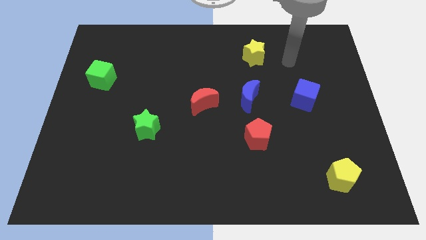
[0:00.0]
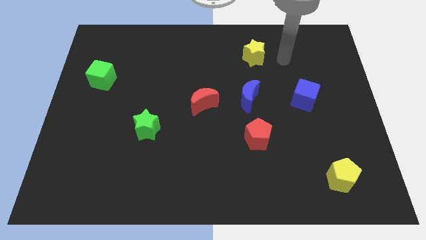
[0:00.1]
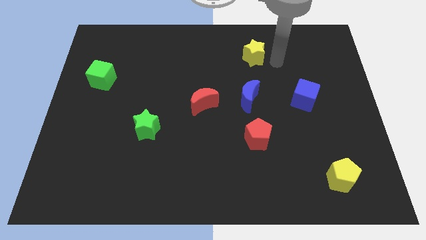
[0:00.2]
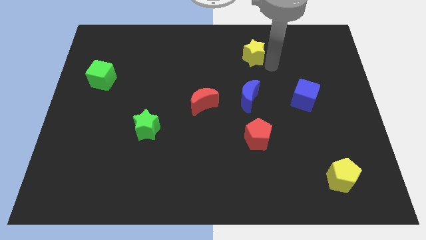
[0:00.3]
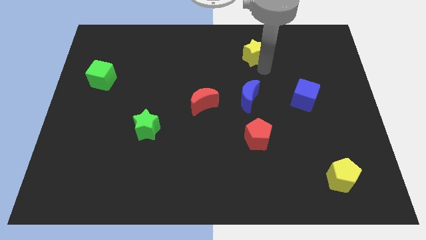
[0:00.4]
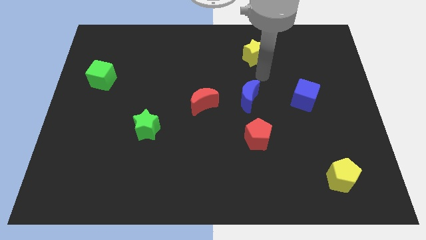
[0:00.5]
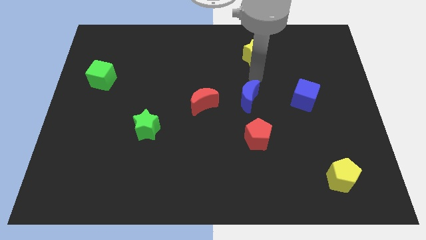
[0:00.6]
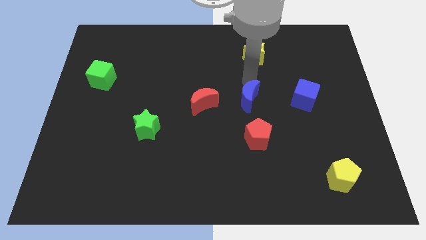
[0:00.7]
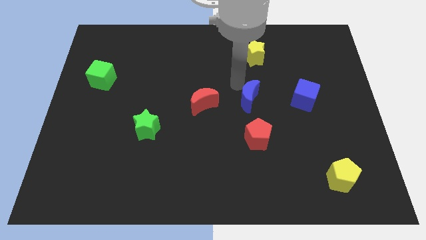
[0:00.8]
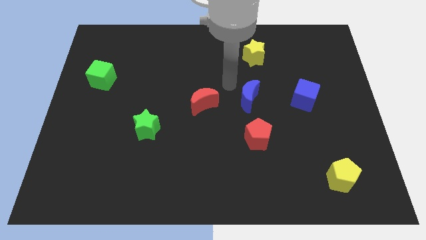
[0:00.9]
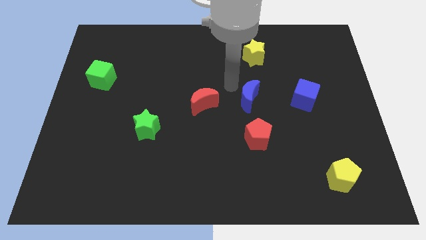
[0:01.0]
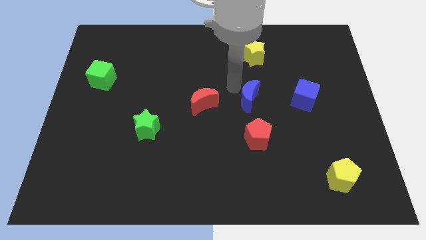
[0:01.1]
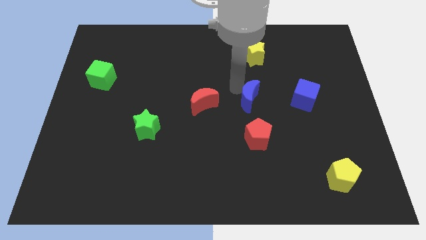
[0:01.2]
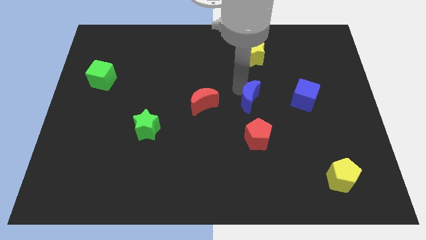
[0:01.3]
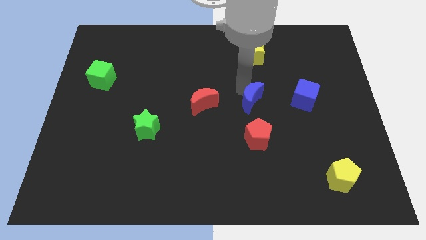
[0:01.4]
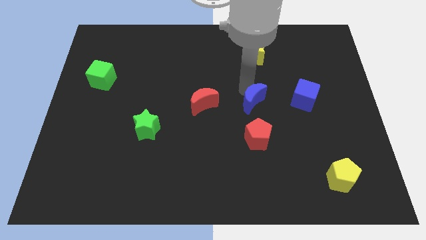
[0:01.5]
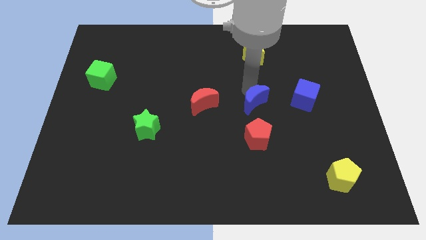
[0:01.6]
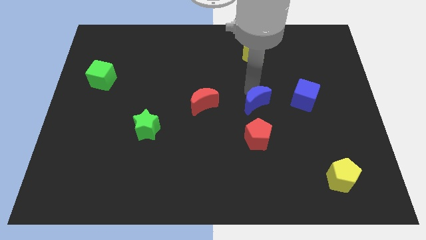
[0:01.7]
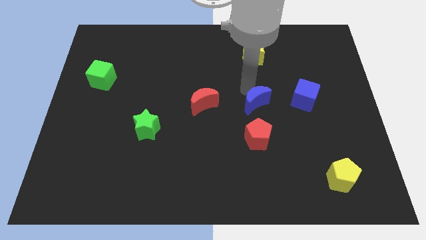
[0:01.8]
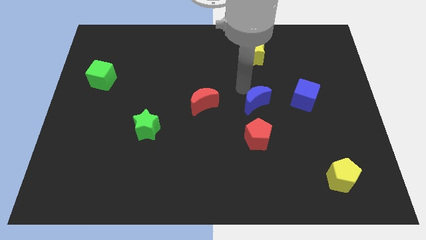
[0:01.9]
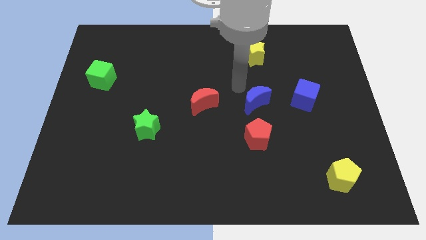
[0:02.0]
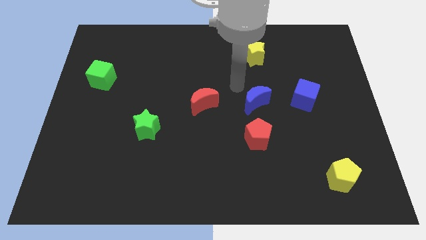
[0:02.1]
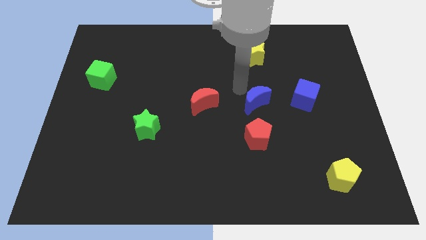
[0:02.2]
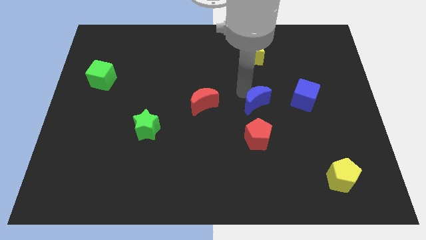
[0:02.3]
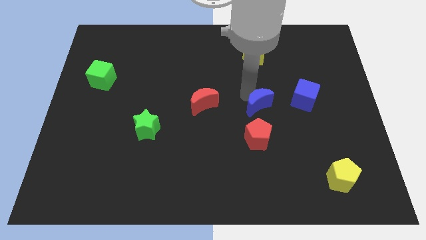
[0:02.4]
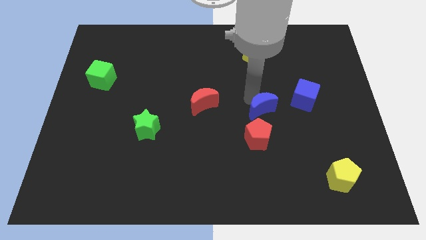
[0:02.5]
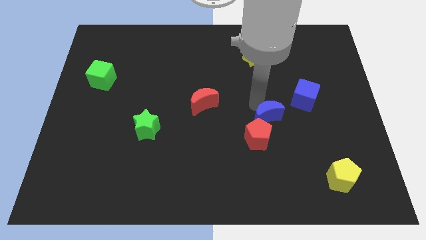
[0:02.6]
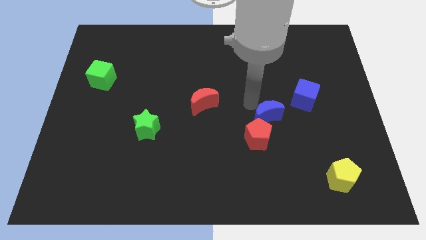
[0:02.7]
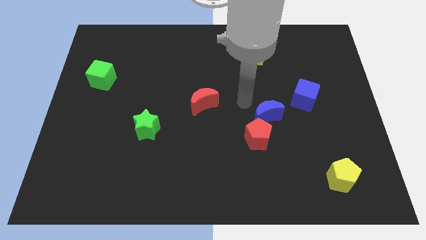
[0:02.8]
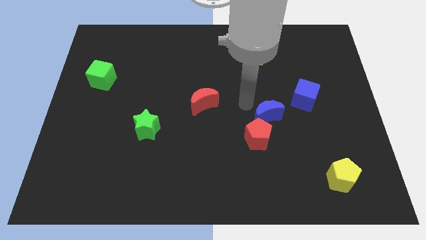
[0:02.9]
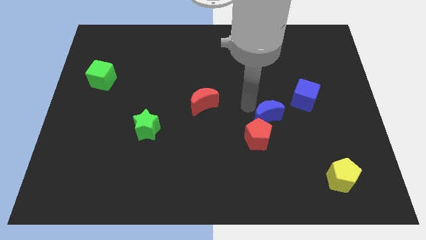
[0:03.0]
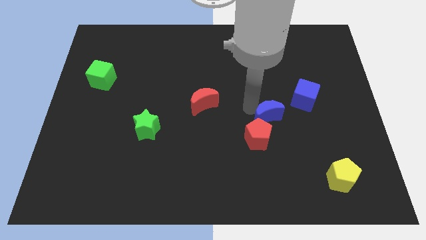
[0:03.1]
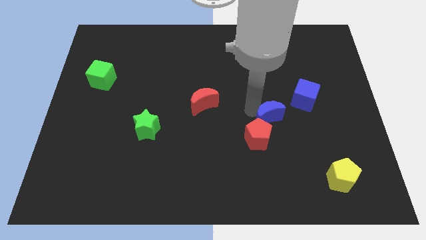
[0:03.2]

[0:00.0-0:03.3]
slightly move the blue moon downwards and to the right diagonally

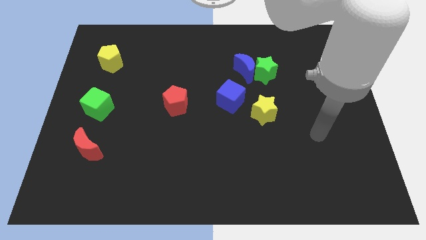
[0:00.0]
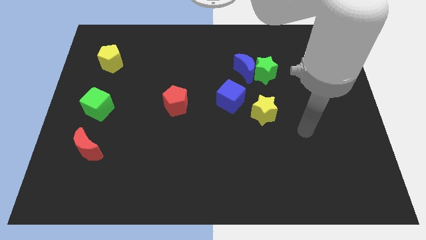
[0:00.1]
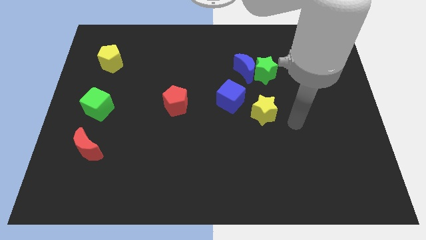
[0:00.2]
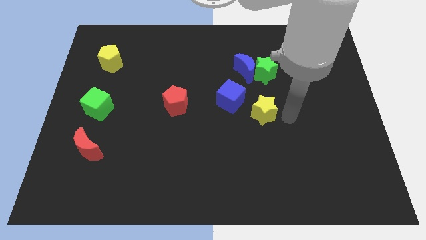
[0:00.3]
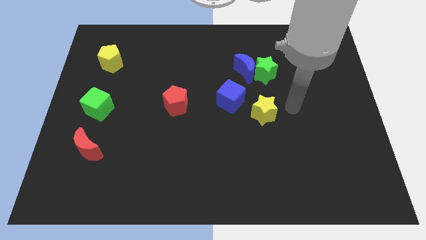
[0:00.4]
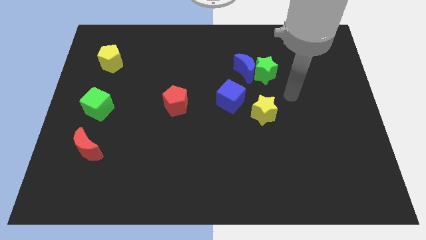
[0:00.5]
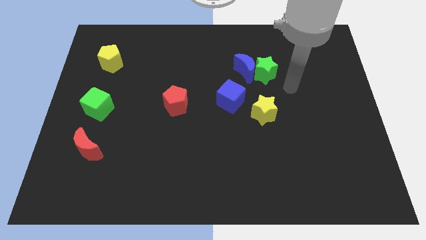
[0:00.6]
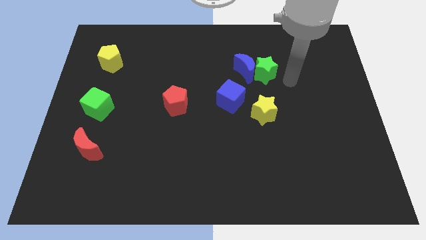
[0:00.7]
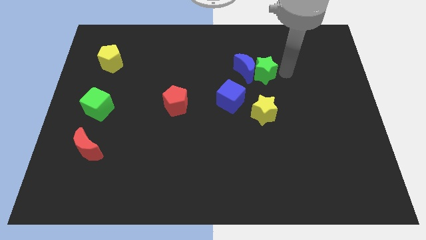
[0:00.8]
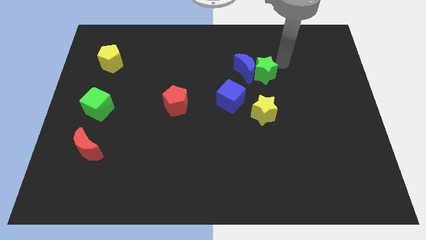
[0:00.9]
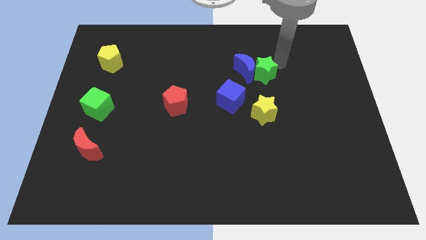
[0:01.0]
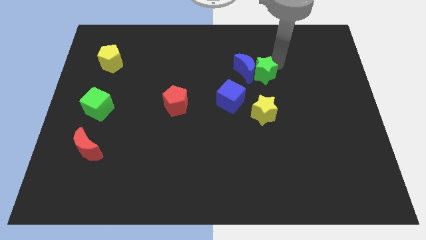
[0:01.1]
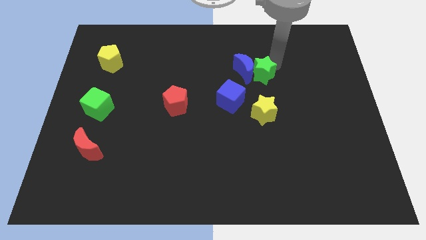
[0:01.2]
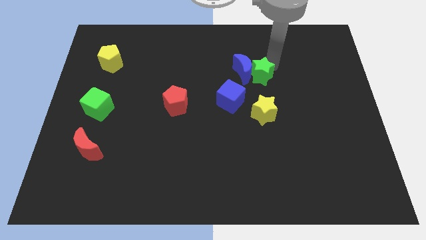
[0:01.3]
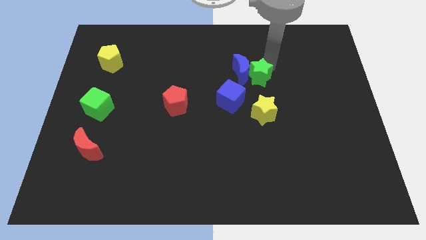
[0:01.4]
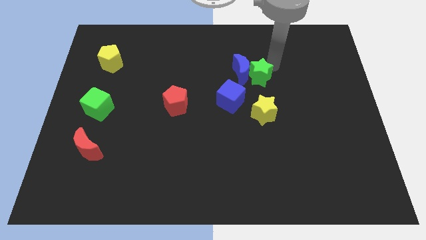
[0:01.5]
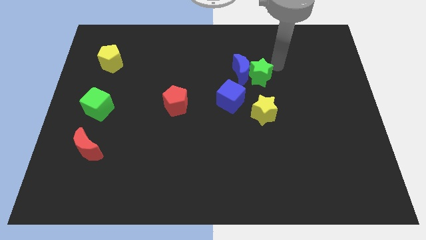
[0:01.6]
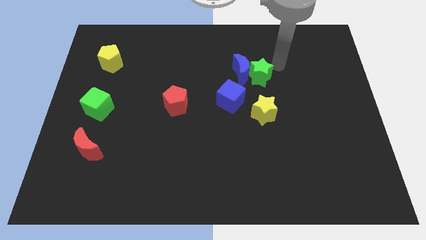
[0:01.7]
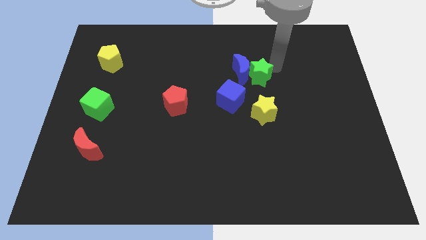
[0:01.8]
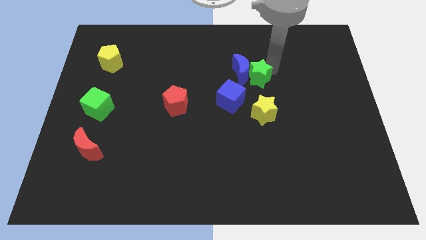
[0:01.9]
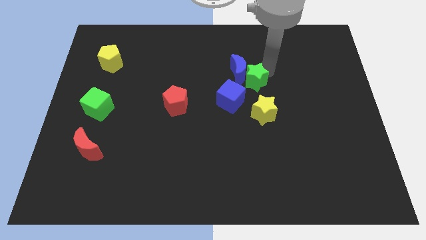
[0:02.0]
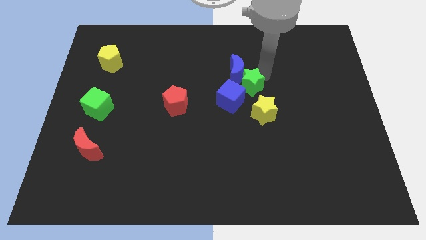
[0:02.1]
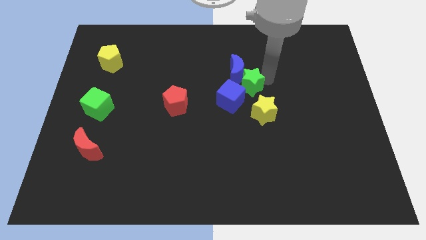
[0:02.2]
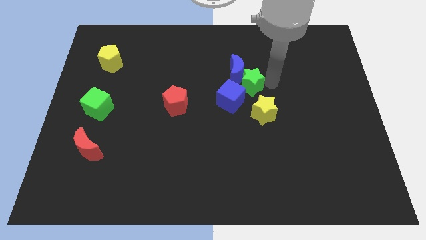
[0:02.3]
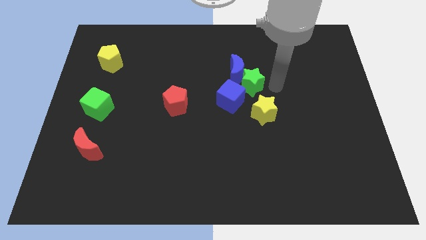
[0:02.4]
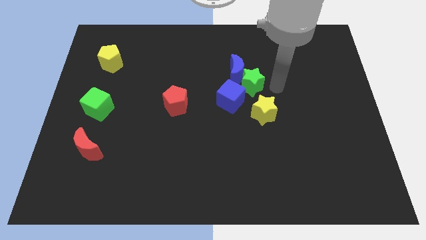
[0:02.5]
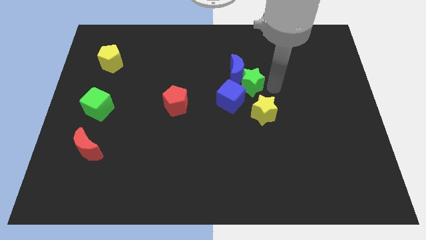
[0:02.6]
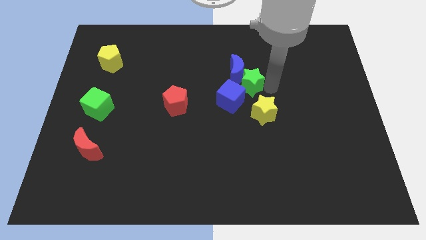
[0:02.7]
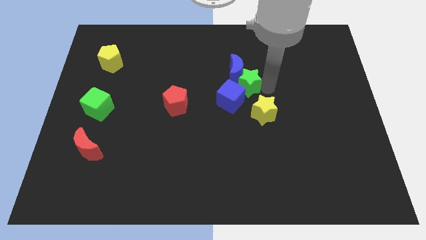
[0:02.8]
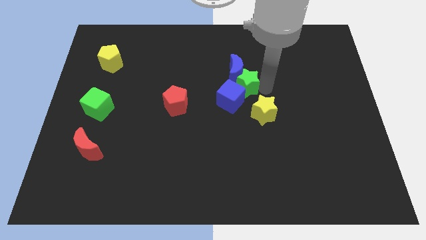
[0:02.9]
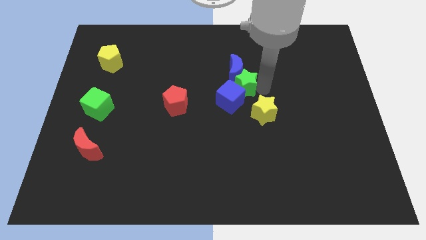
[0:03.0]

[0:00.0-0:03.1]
slightly push the green star down and to the left diagonally

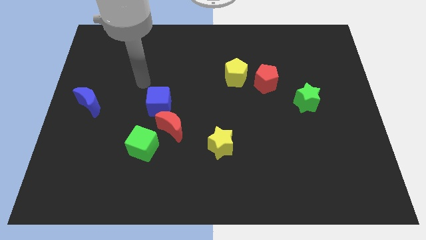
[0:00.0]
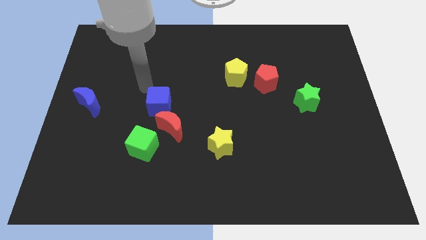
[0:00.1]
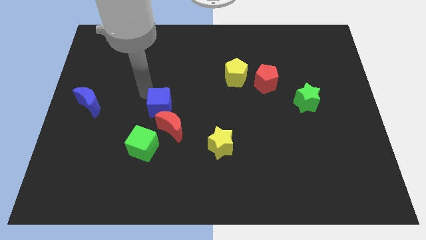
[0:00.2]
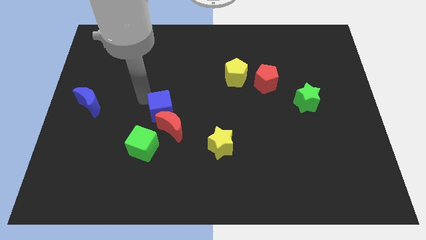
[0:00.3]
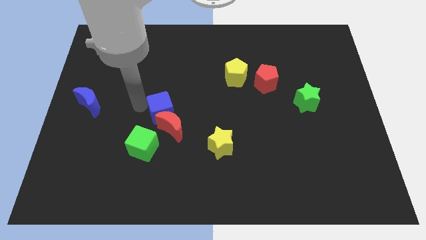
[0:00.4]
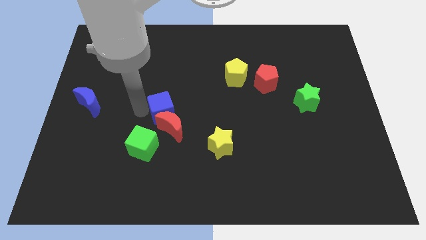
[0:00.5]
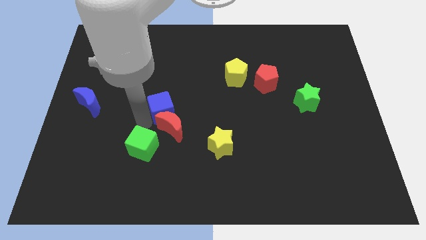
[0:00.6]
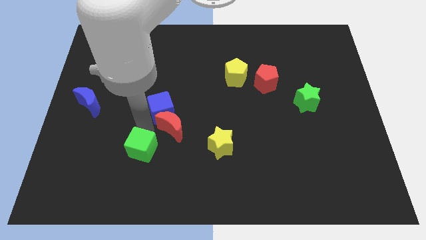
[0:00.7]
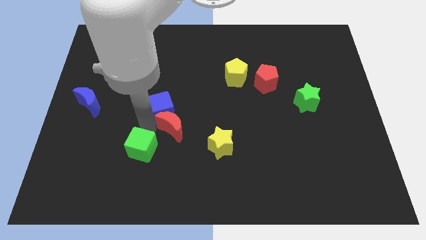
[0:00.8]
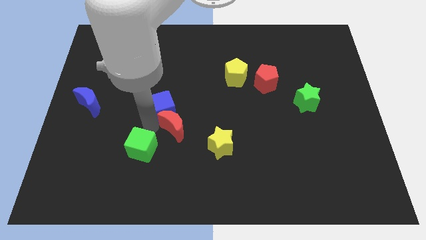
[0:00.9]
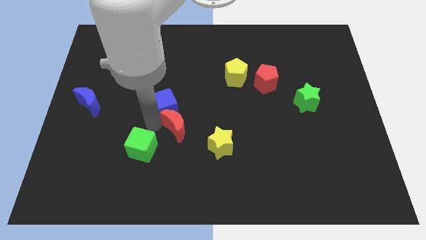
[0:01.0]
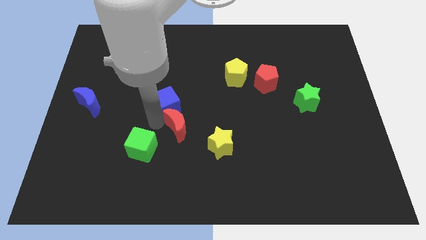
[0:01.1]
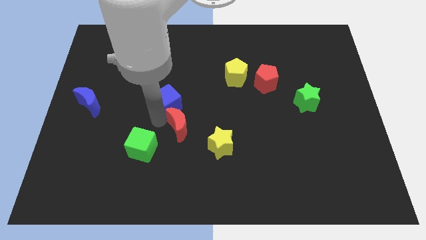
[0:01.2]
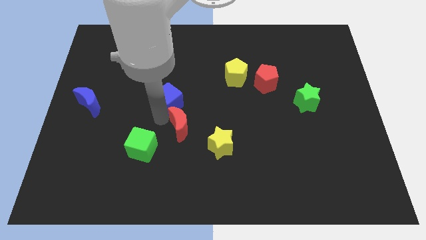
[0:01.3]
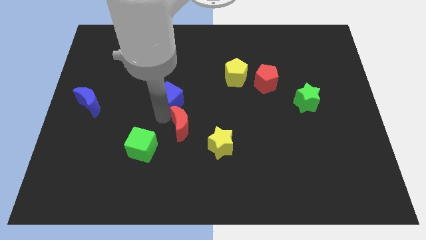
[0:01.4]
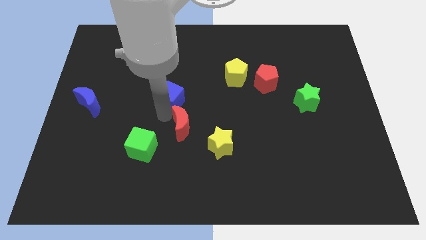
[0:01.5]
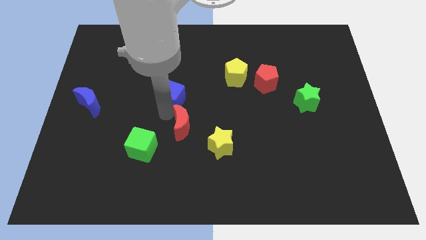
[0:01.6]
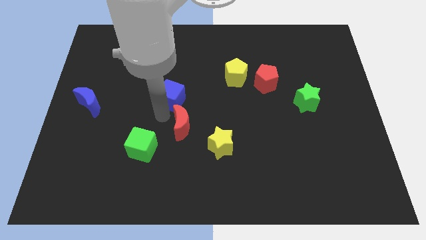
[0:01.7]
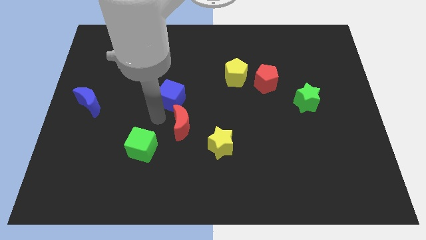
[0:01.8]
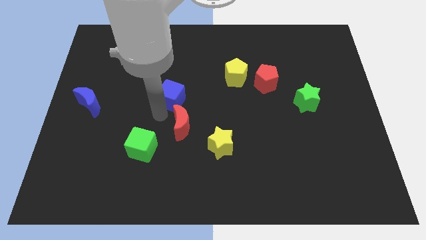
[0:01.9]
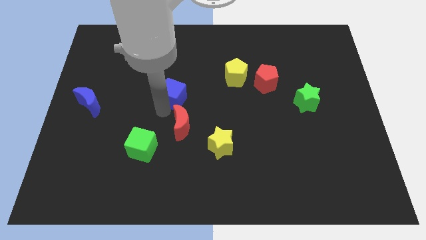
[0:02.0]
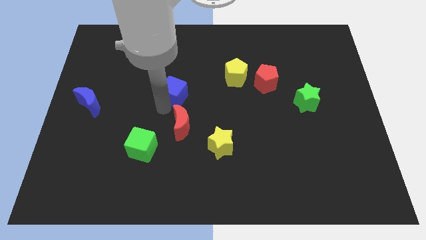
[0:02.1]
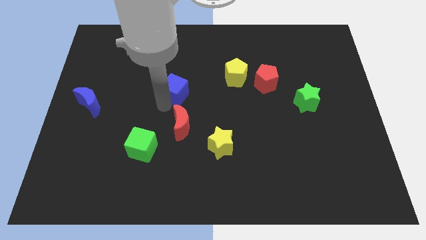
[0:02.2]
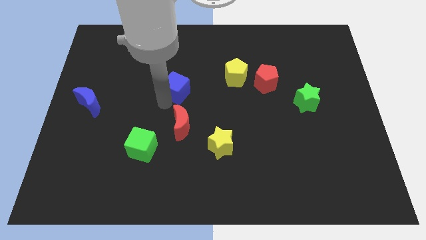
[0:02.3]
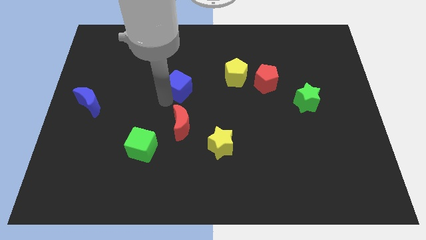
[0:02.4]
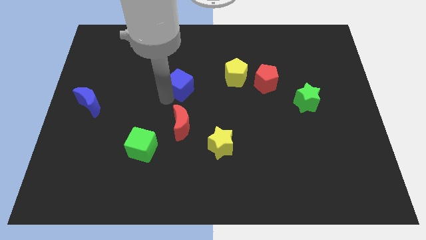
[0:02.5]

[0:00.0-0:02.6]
slightly move the blue cube upwards and then to the right
